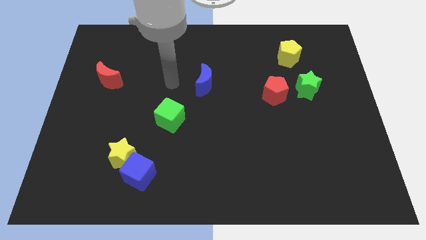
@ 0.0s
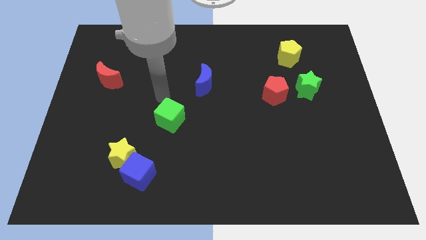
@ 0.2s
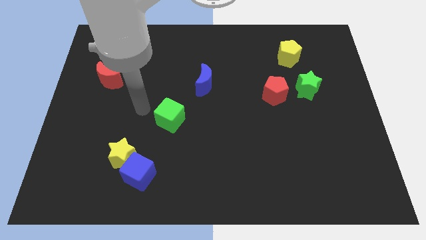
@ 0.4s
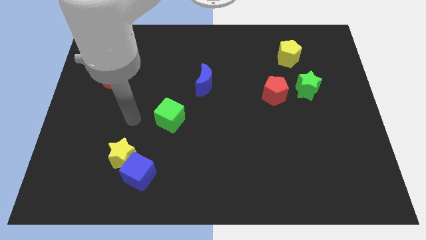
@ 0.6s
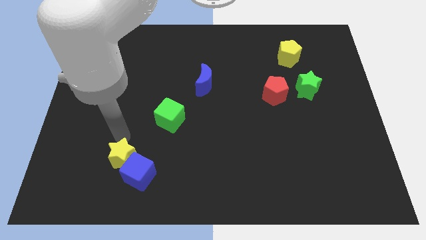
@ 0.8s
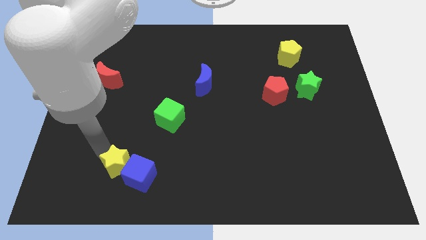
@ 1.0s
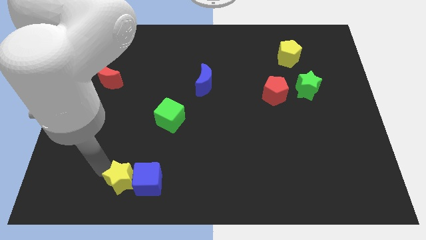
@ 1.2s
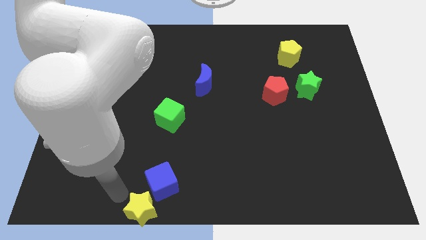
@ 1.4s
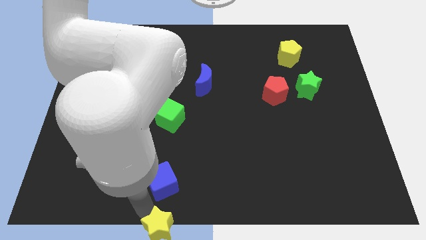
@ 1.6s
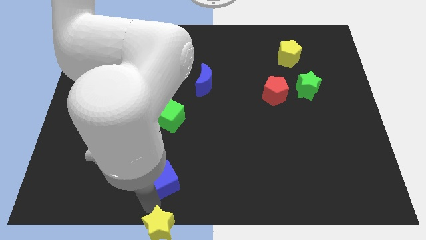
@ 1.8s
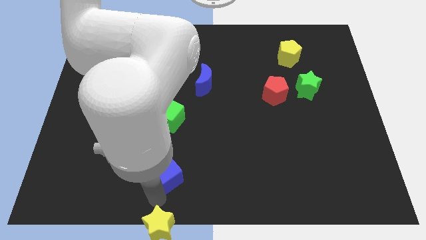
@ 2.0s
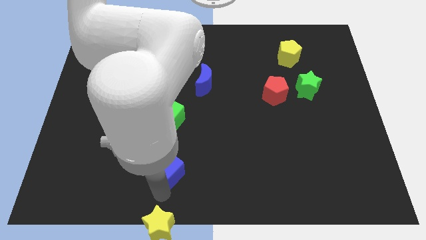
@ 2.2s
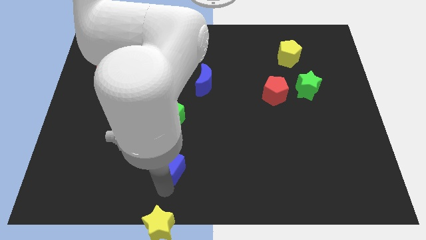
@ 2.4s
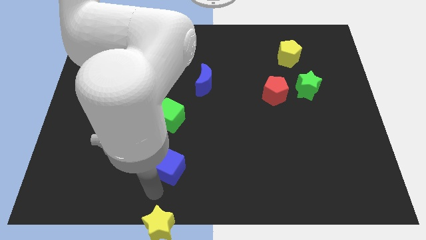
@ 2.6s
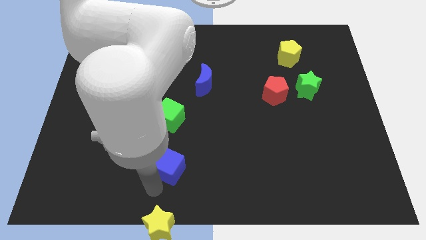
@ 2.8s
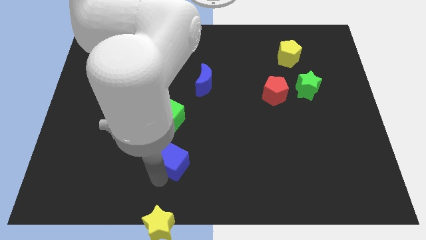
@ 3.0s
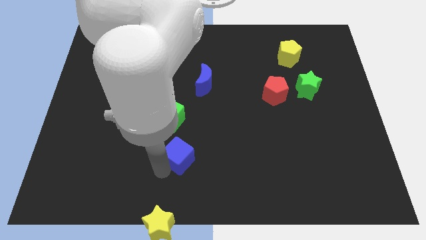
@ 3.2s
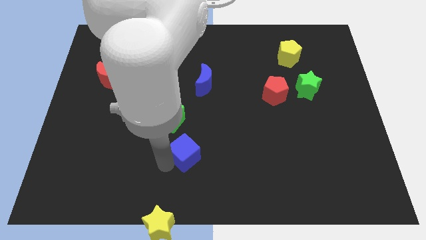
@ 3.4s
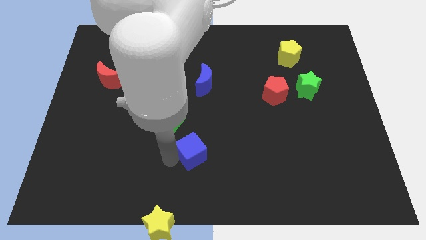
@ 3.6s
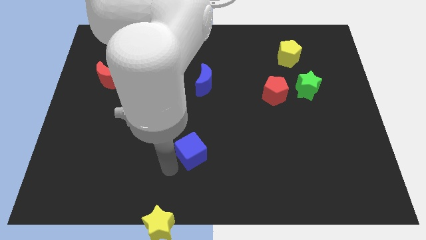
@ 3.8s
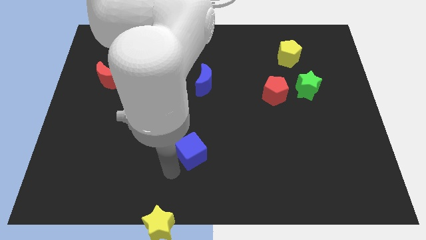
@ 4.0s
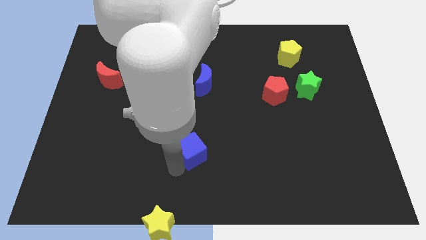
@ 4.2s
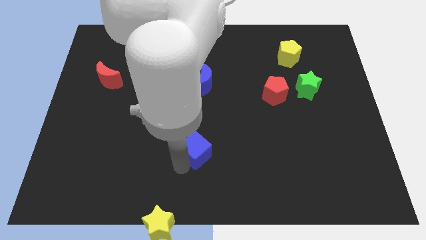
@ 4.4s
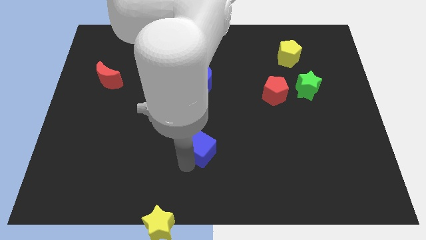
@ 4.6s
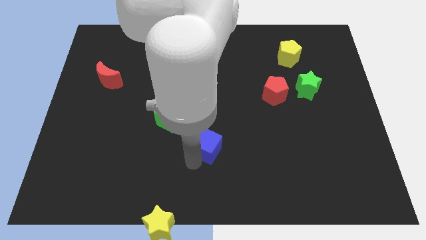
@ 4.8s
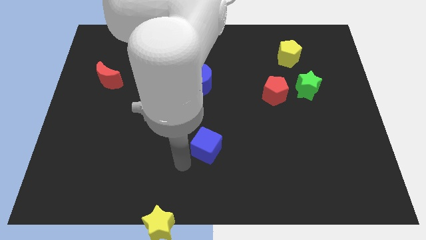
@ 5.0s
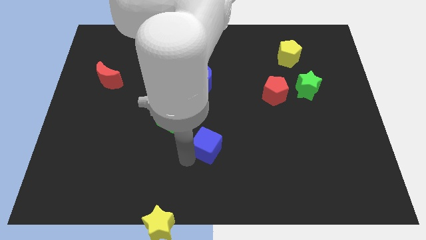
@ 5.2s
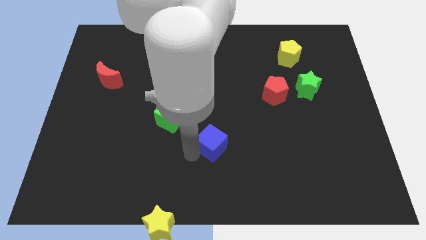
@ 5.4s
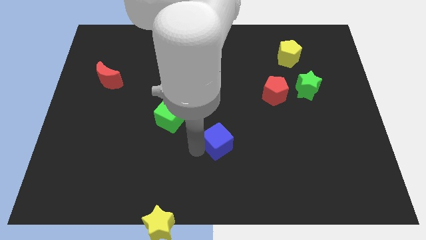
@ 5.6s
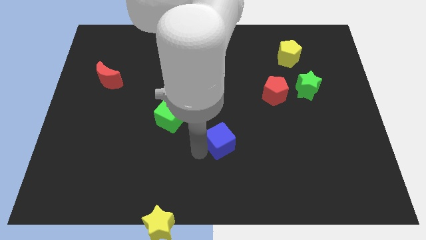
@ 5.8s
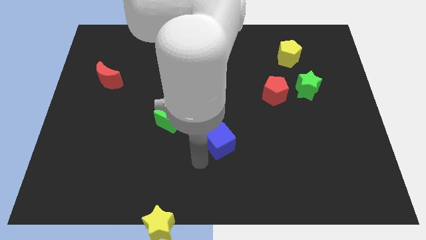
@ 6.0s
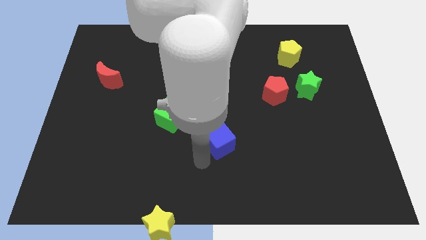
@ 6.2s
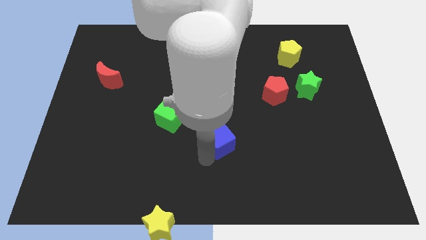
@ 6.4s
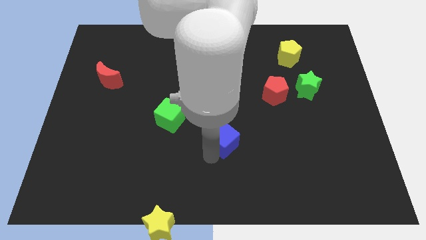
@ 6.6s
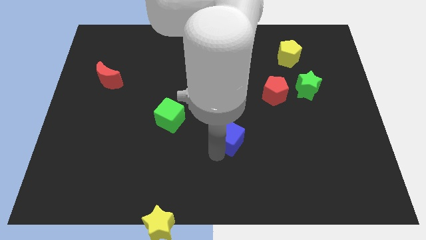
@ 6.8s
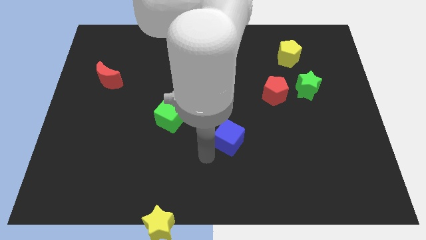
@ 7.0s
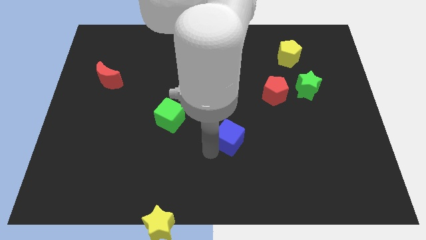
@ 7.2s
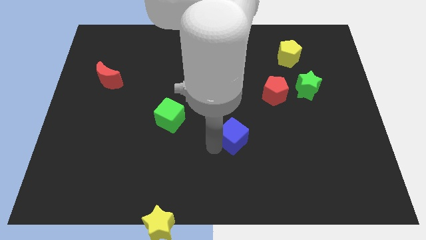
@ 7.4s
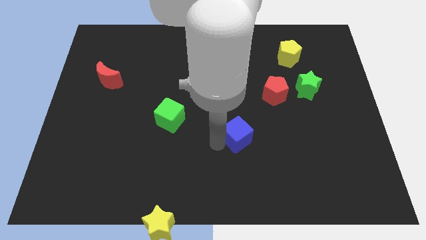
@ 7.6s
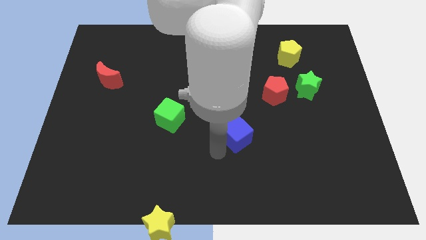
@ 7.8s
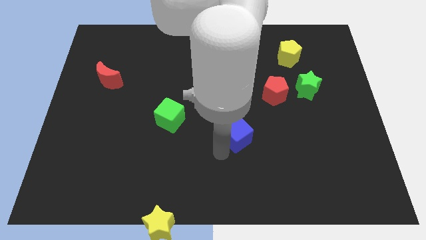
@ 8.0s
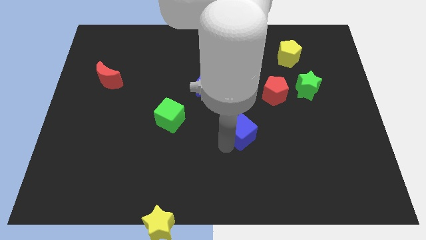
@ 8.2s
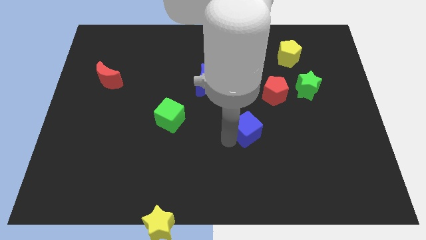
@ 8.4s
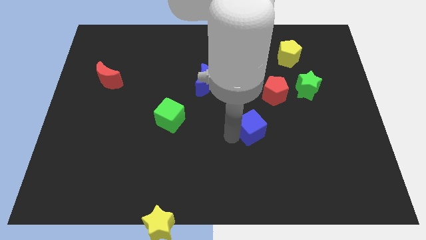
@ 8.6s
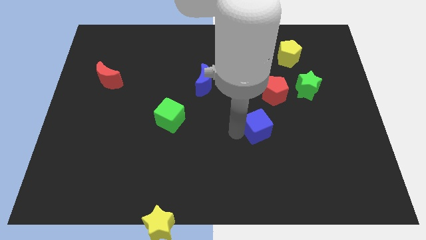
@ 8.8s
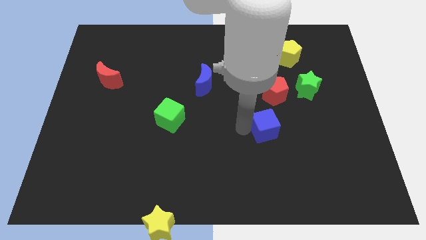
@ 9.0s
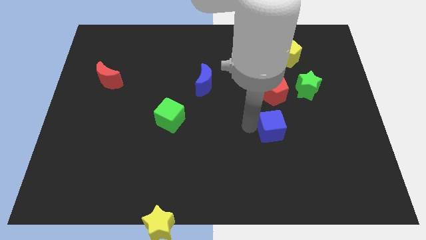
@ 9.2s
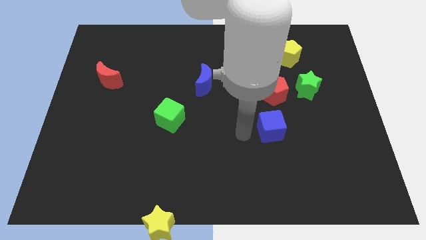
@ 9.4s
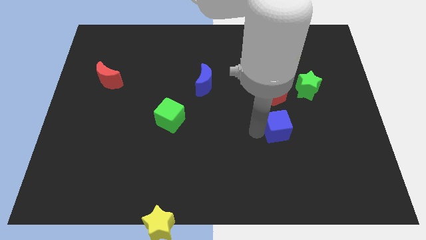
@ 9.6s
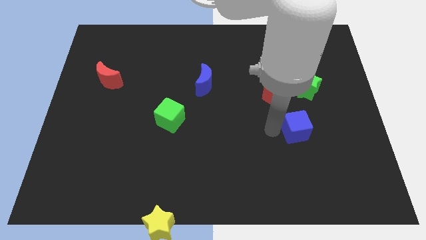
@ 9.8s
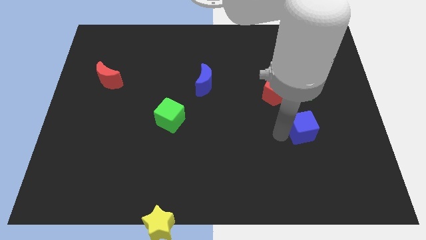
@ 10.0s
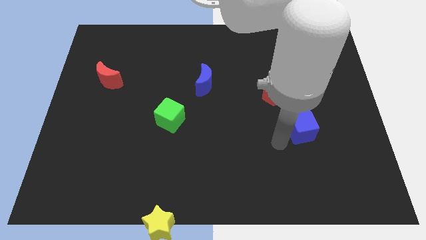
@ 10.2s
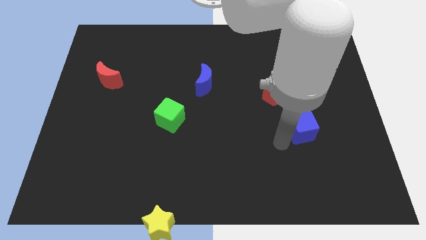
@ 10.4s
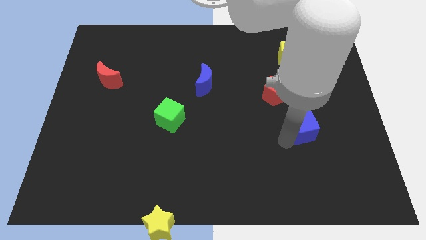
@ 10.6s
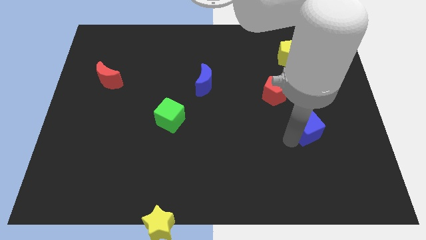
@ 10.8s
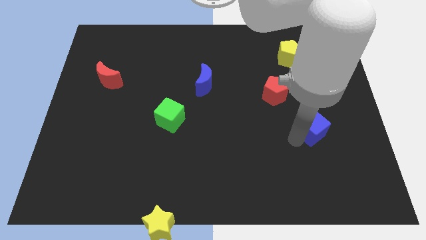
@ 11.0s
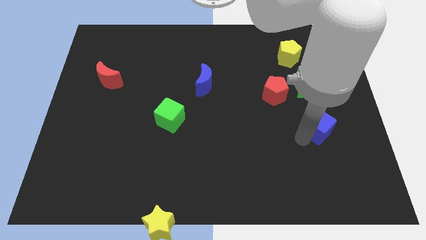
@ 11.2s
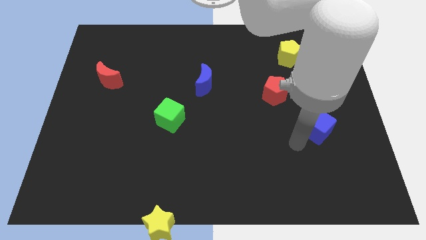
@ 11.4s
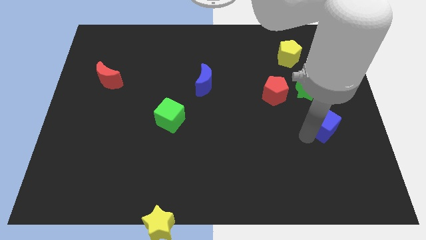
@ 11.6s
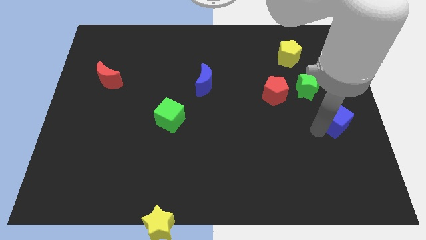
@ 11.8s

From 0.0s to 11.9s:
put the blue cube to the right side of the board

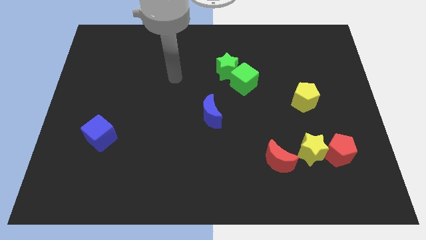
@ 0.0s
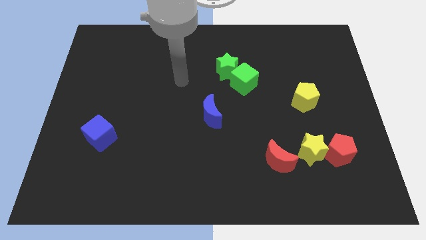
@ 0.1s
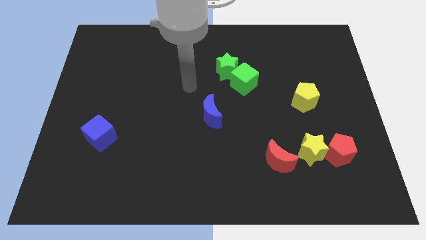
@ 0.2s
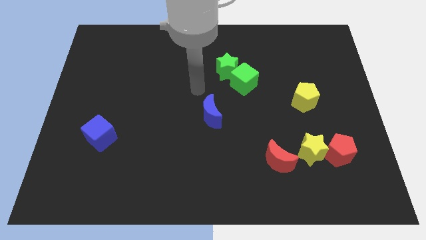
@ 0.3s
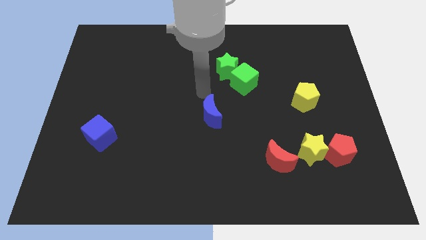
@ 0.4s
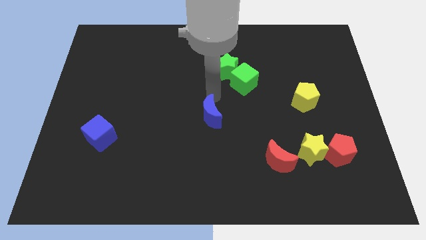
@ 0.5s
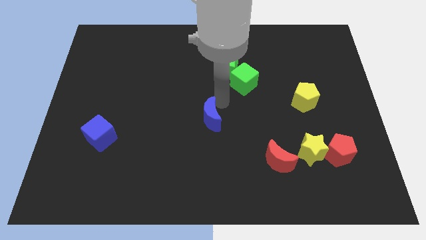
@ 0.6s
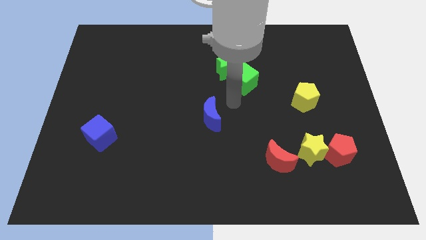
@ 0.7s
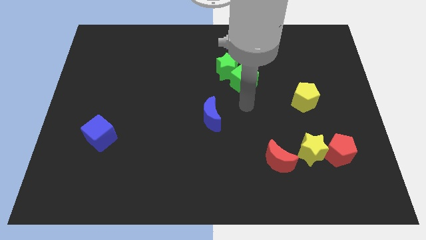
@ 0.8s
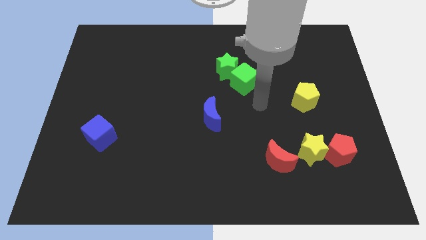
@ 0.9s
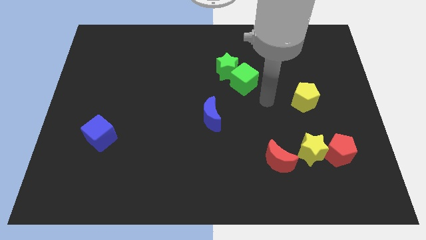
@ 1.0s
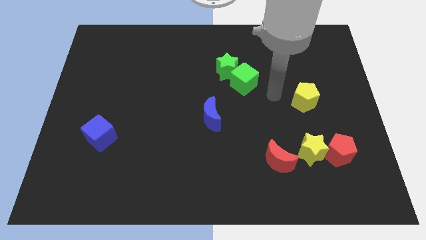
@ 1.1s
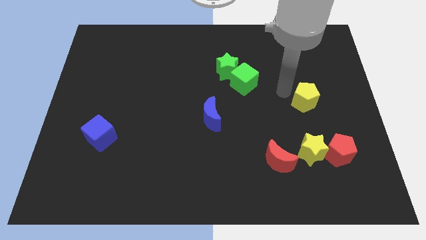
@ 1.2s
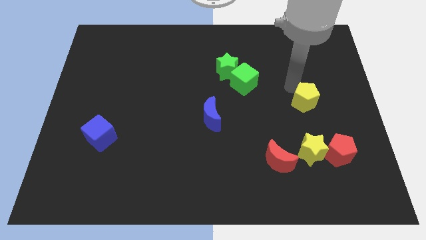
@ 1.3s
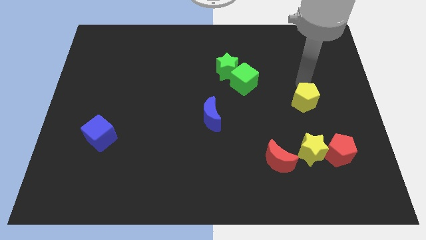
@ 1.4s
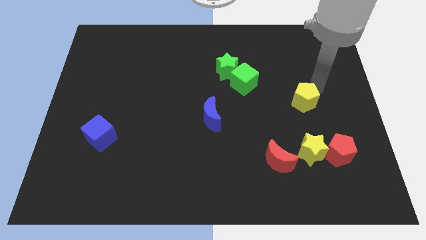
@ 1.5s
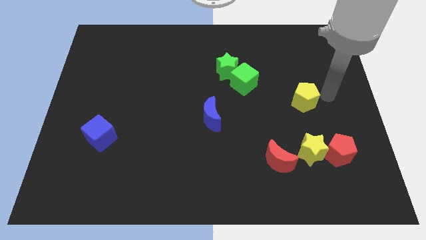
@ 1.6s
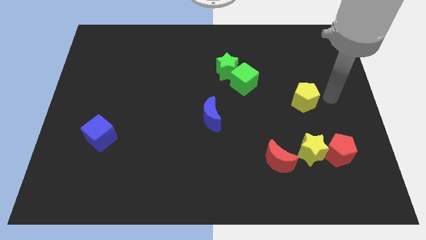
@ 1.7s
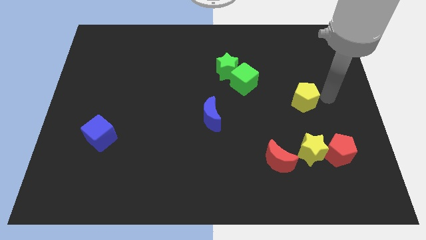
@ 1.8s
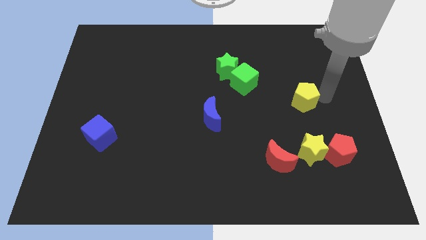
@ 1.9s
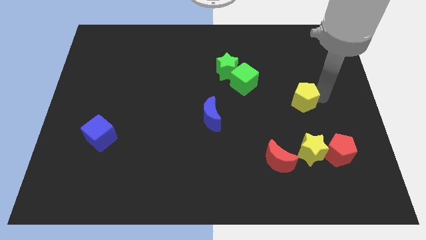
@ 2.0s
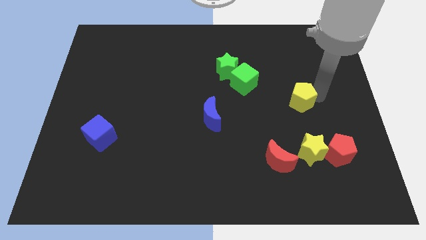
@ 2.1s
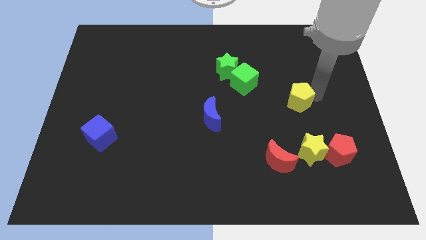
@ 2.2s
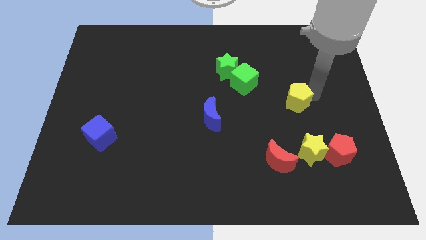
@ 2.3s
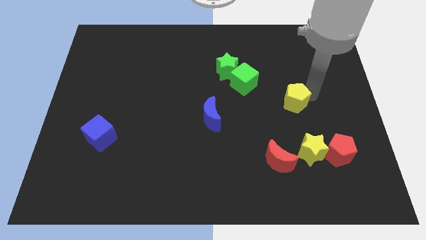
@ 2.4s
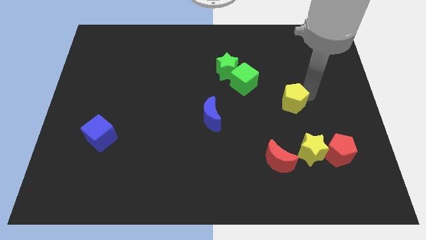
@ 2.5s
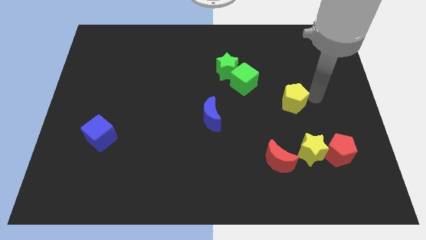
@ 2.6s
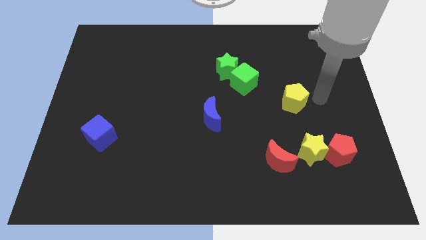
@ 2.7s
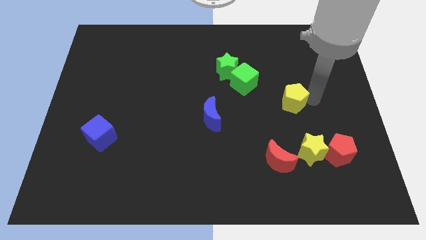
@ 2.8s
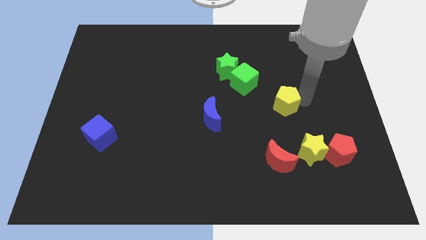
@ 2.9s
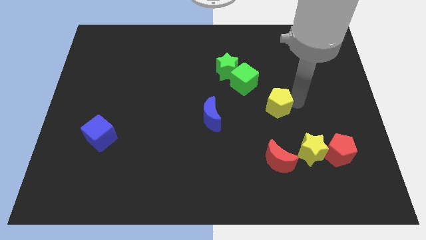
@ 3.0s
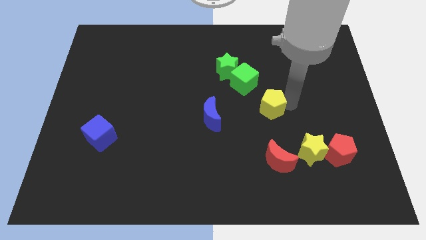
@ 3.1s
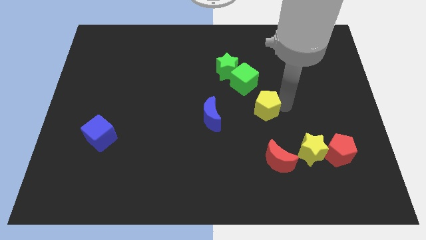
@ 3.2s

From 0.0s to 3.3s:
put the yellow pentagon to the center
